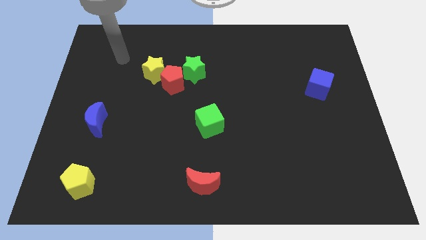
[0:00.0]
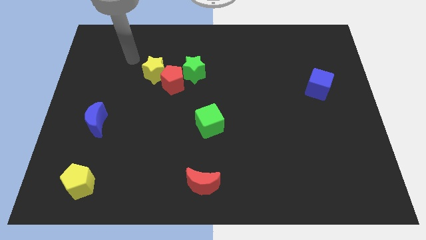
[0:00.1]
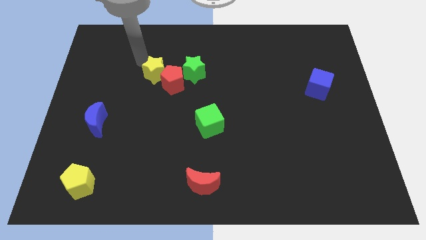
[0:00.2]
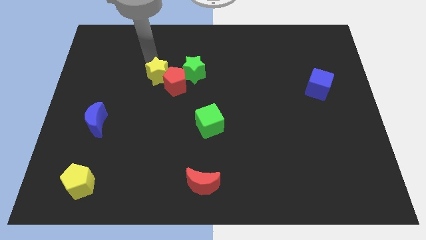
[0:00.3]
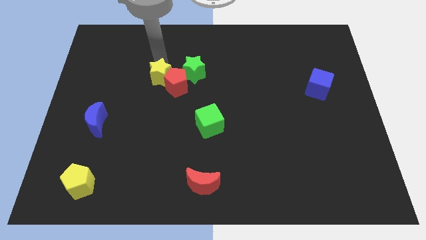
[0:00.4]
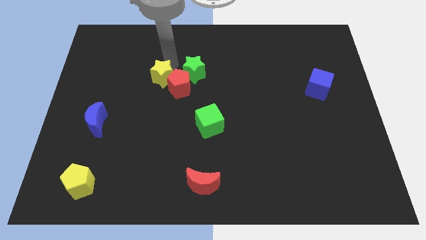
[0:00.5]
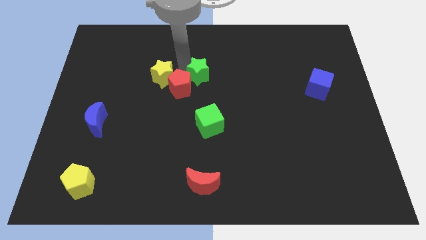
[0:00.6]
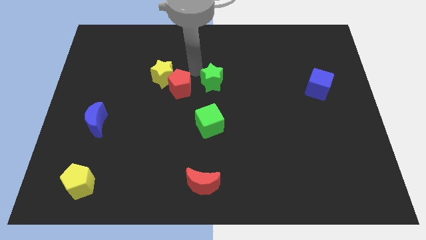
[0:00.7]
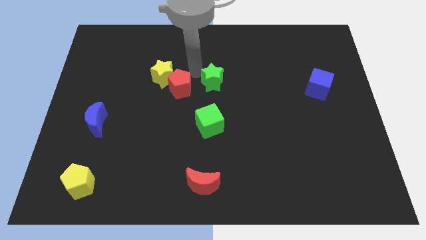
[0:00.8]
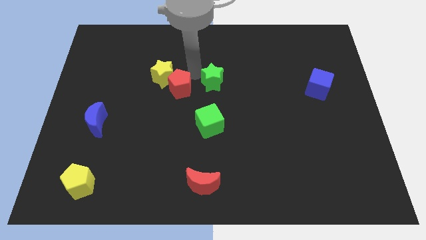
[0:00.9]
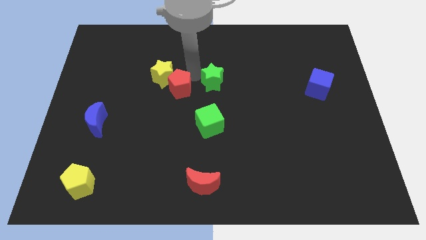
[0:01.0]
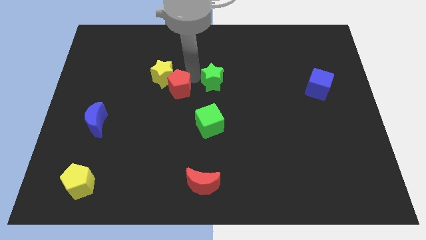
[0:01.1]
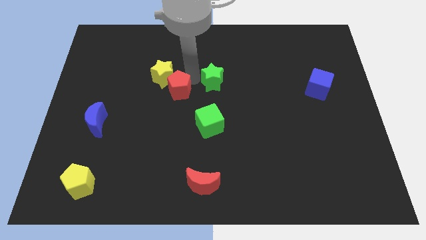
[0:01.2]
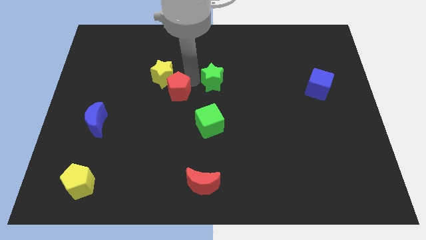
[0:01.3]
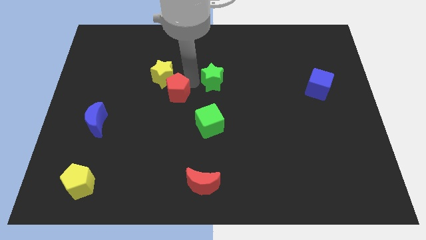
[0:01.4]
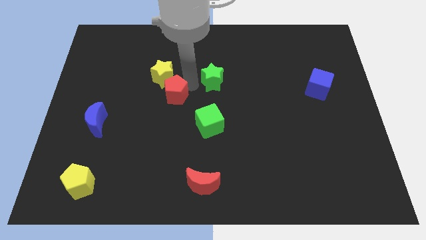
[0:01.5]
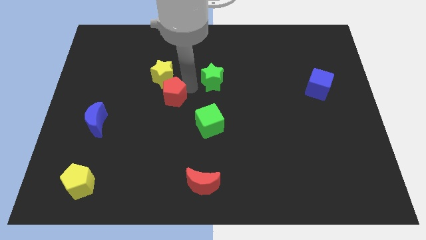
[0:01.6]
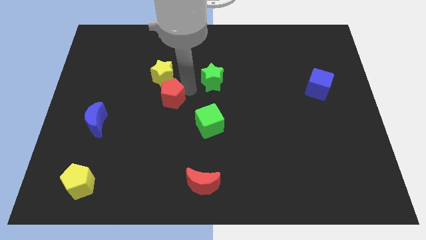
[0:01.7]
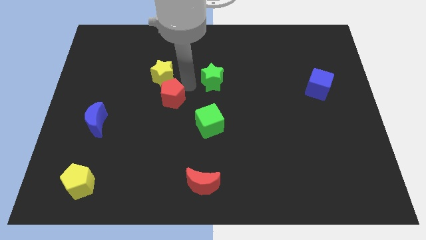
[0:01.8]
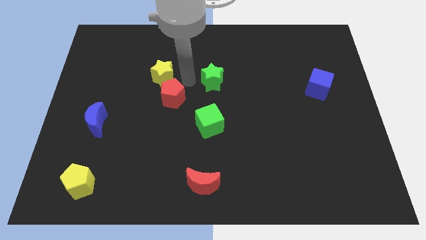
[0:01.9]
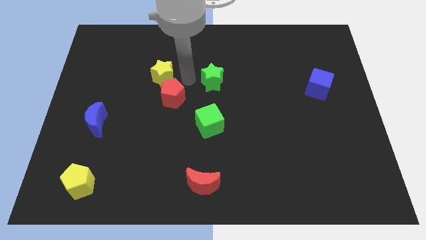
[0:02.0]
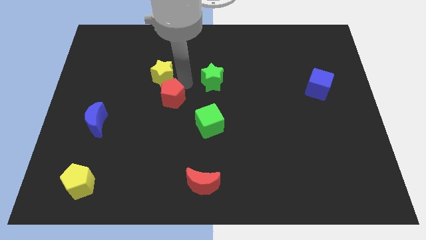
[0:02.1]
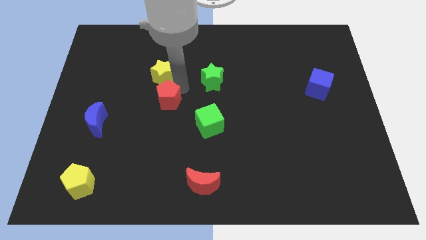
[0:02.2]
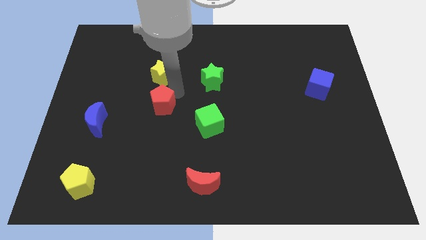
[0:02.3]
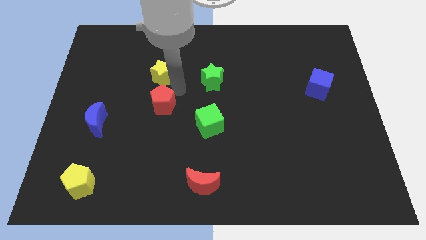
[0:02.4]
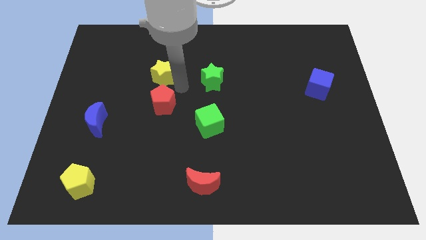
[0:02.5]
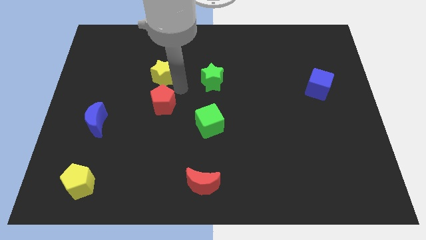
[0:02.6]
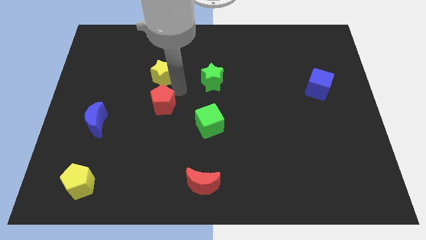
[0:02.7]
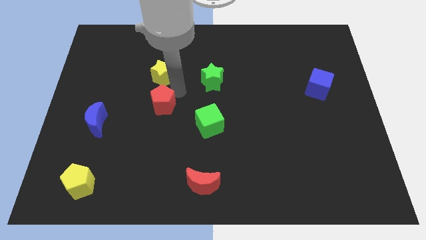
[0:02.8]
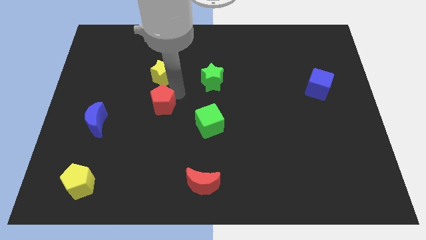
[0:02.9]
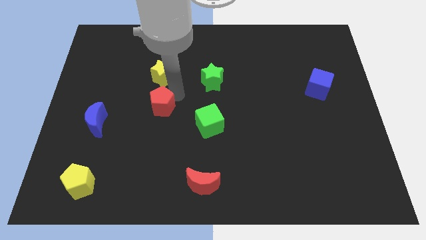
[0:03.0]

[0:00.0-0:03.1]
move the red pentagon away from the green star and yellow star

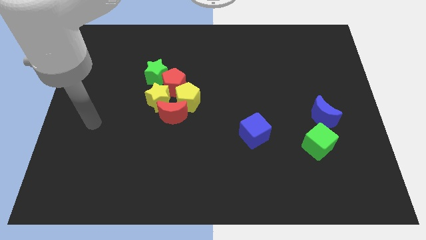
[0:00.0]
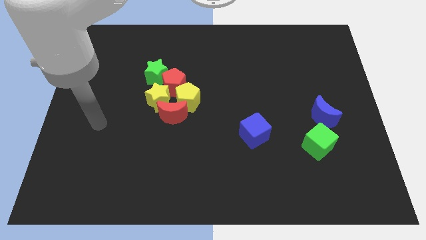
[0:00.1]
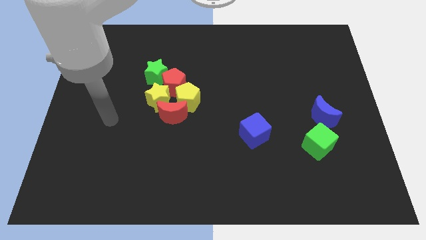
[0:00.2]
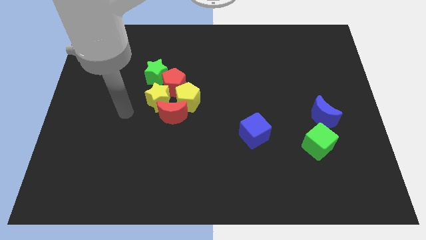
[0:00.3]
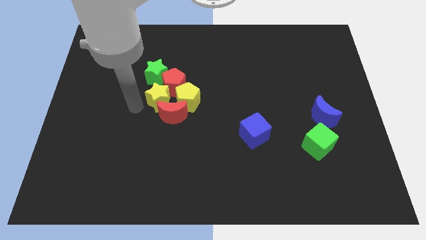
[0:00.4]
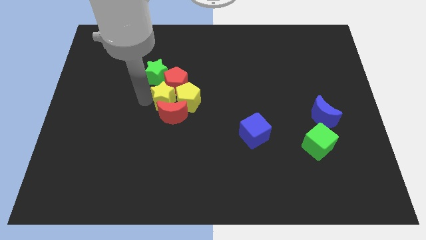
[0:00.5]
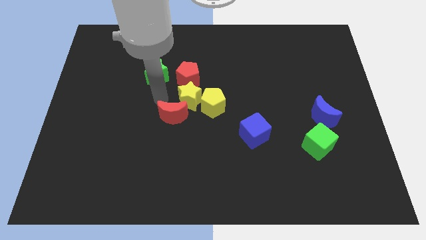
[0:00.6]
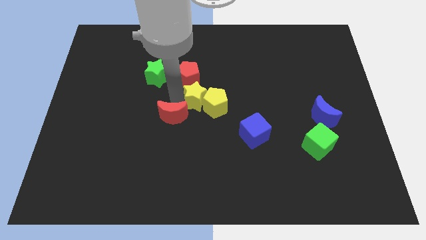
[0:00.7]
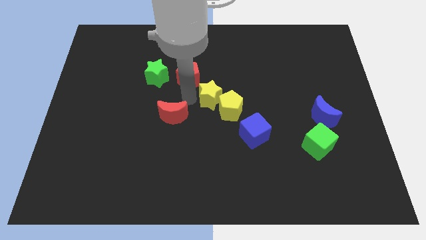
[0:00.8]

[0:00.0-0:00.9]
pull the yellow pentagon apart from the red moon, red pentagon, and yellow star

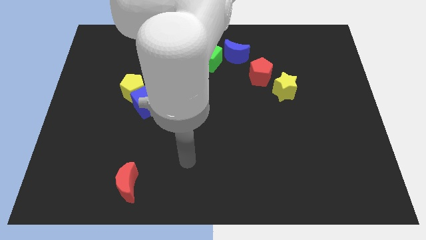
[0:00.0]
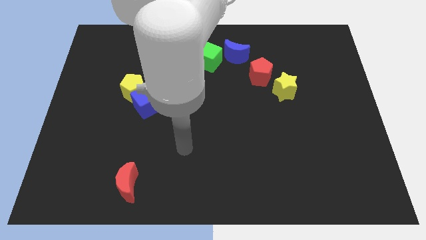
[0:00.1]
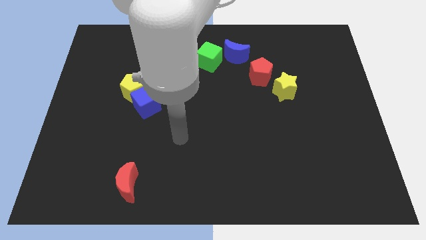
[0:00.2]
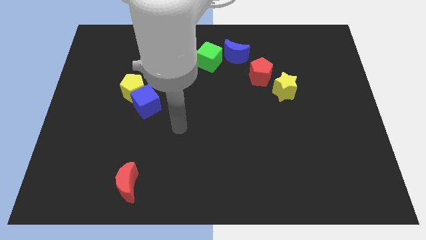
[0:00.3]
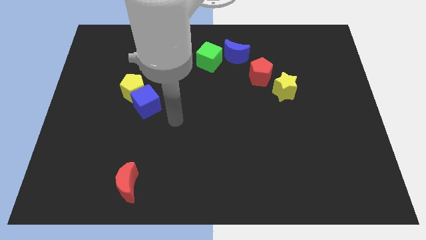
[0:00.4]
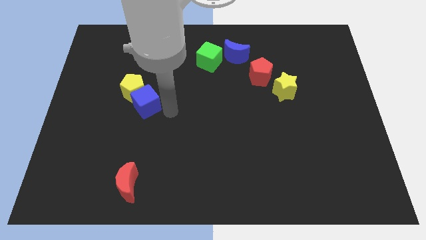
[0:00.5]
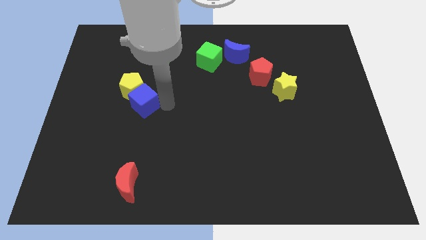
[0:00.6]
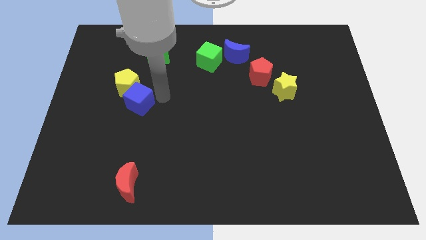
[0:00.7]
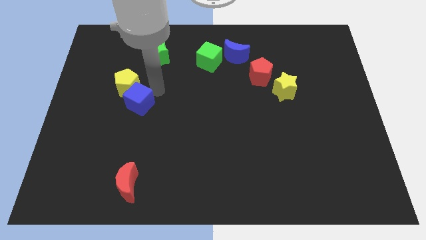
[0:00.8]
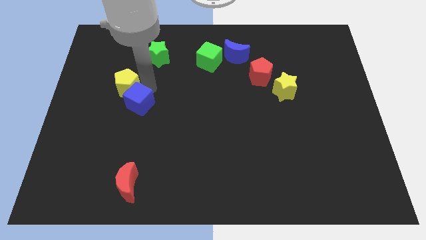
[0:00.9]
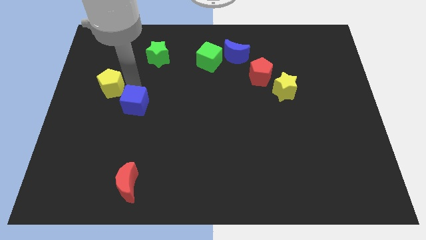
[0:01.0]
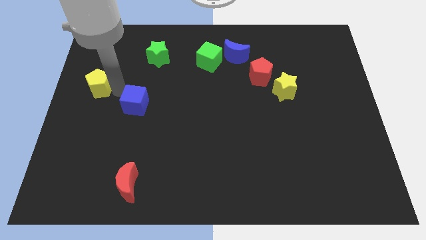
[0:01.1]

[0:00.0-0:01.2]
separate the blue cube from the yellow pentagon

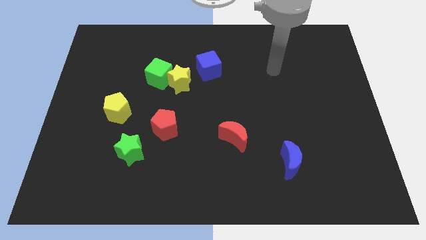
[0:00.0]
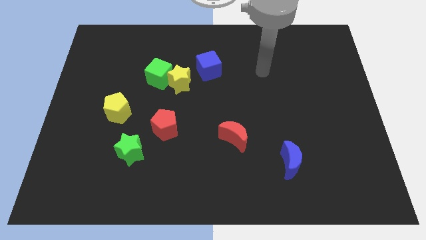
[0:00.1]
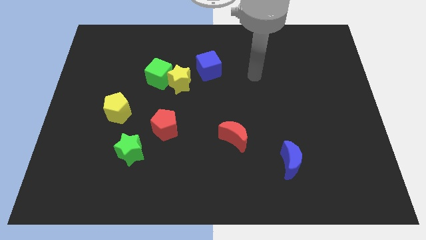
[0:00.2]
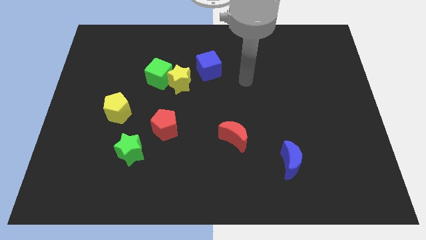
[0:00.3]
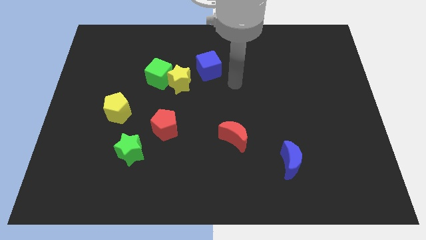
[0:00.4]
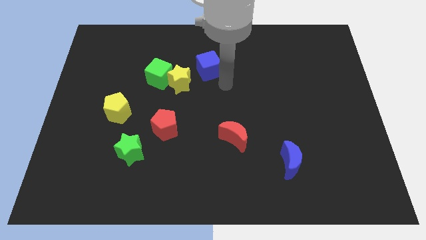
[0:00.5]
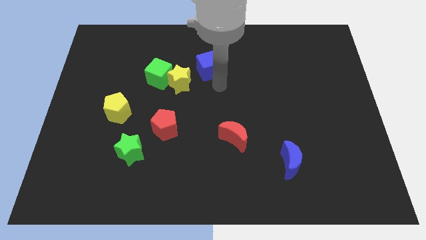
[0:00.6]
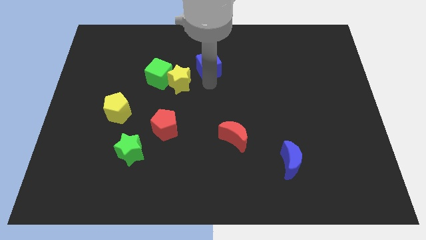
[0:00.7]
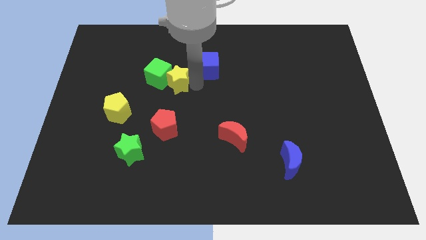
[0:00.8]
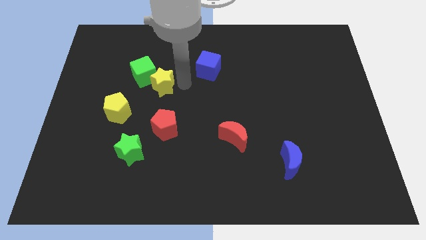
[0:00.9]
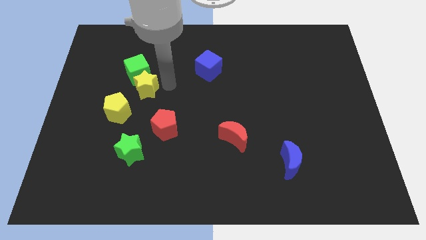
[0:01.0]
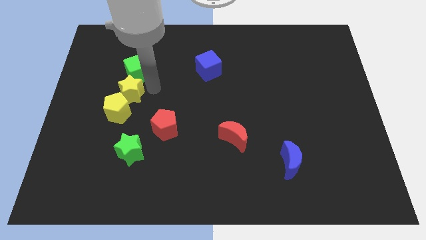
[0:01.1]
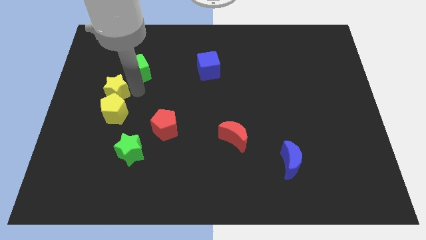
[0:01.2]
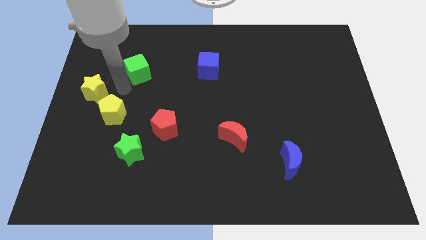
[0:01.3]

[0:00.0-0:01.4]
separate the green cube from the yellow star

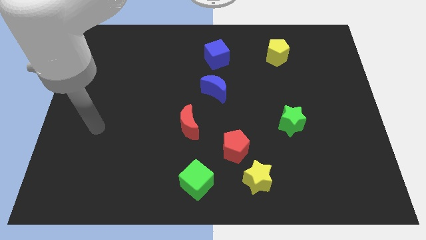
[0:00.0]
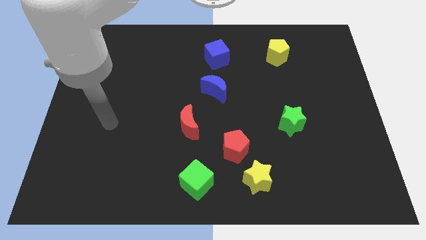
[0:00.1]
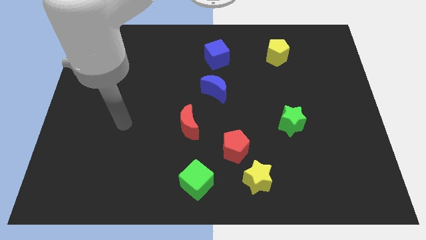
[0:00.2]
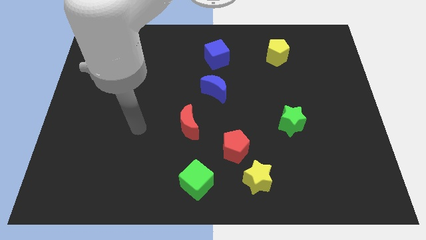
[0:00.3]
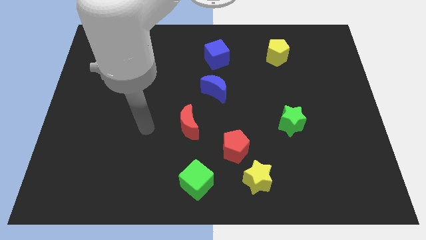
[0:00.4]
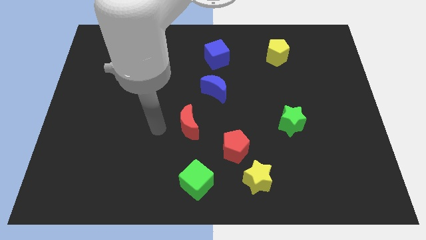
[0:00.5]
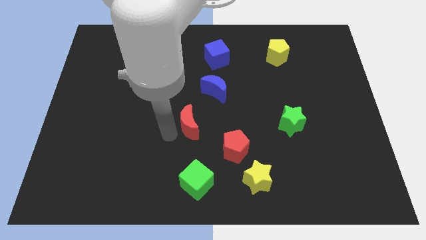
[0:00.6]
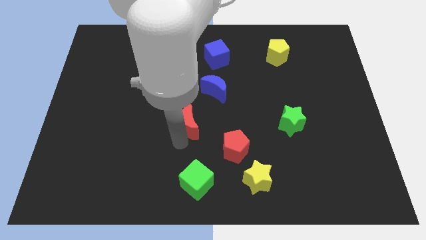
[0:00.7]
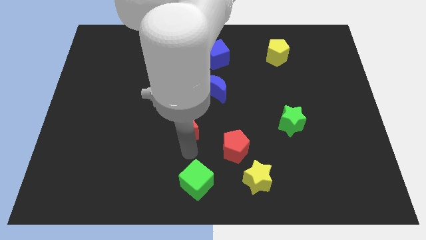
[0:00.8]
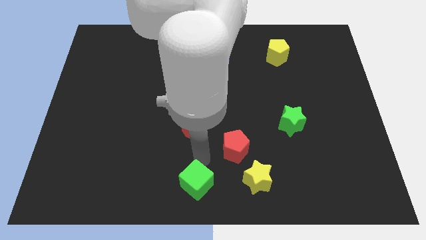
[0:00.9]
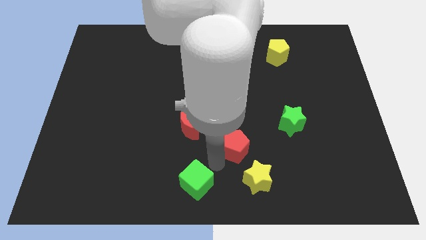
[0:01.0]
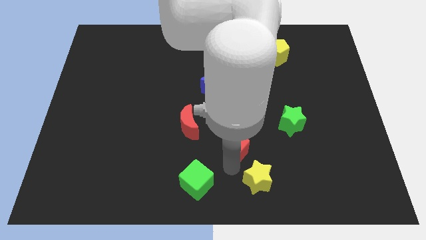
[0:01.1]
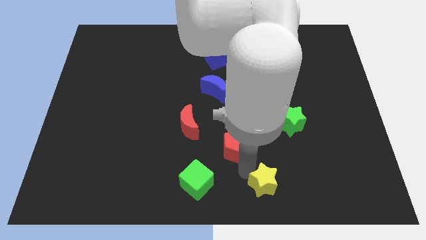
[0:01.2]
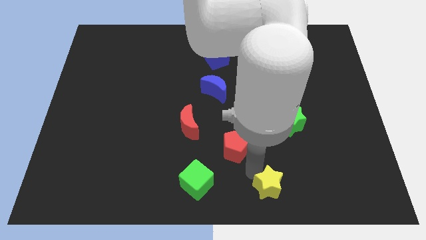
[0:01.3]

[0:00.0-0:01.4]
separate the red pentagon from the yellow star

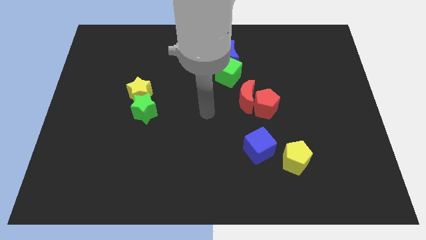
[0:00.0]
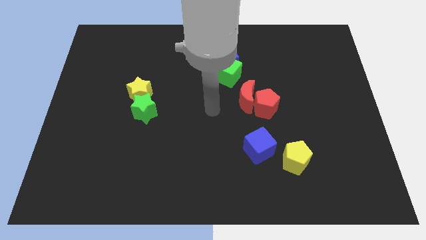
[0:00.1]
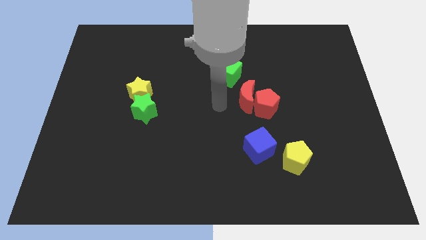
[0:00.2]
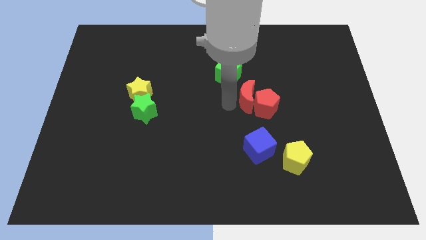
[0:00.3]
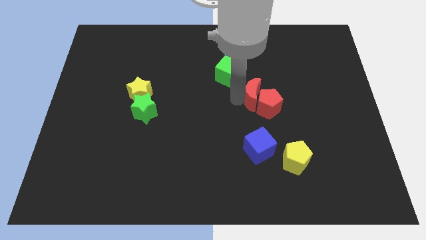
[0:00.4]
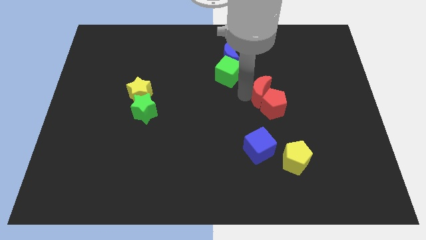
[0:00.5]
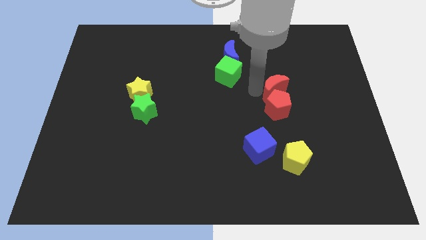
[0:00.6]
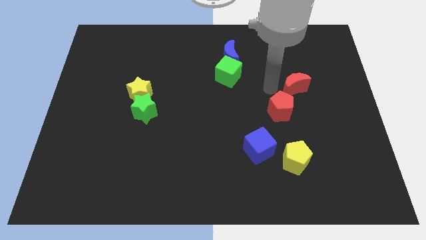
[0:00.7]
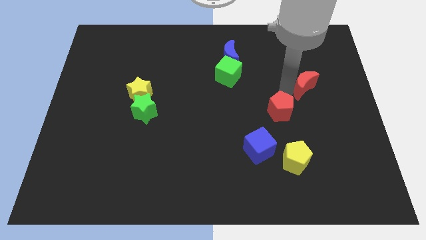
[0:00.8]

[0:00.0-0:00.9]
separate the red pentagon from the red moon

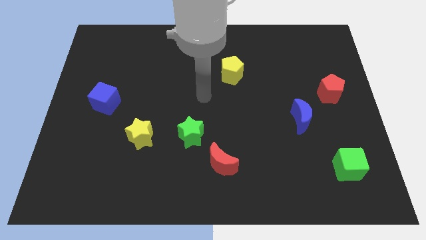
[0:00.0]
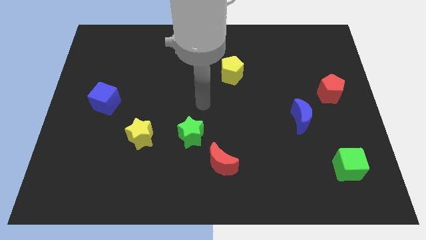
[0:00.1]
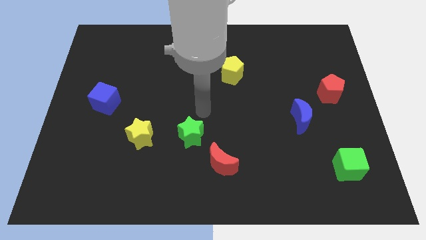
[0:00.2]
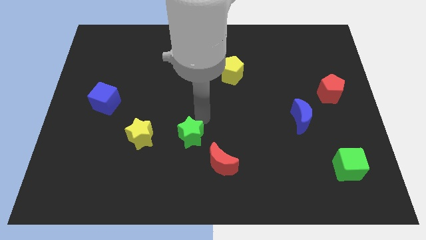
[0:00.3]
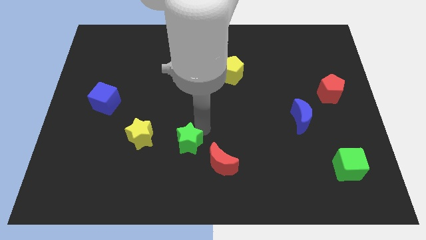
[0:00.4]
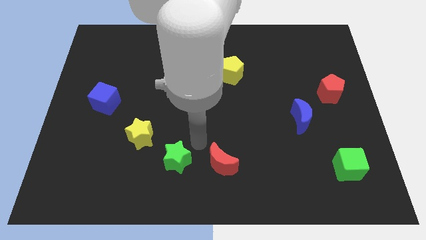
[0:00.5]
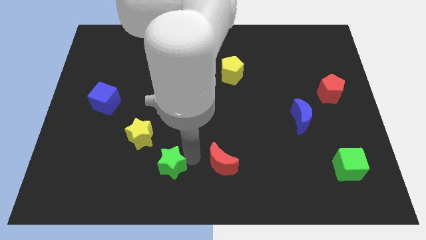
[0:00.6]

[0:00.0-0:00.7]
pull the red moon apart from the green star
